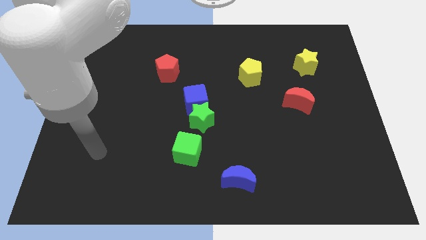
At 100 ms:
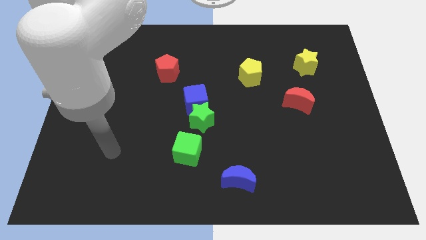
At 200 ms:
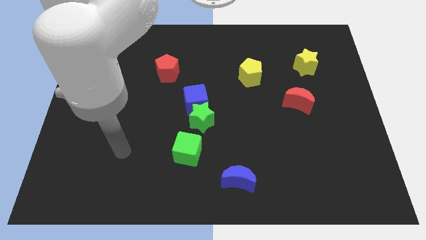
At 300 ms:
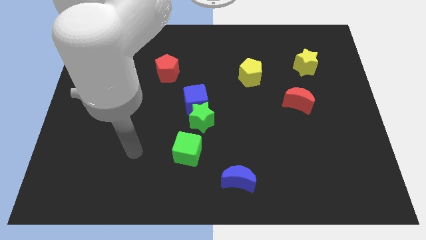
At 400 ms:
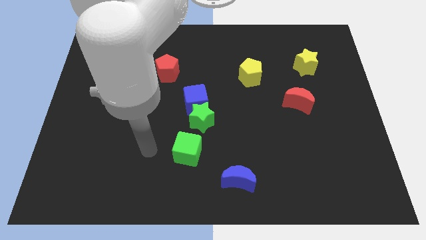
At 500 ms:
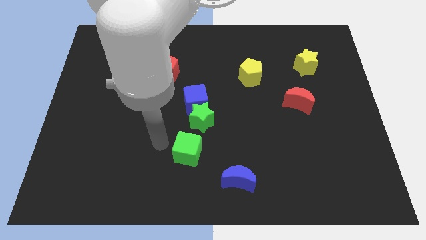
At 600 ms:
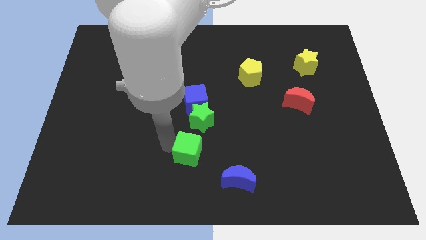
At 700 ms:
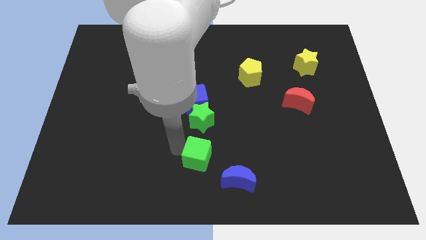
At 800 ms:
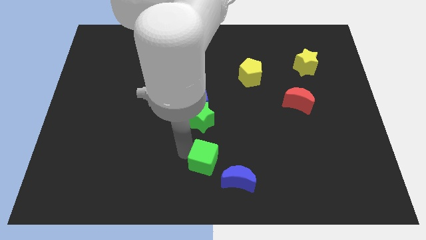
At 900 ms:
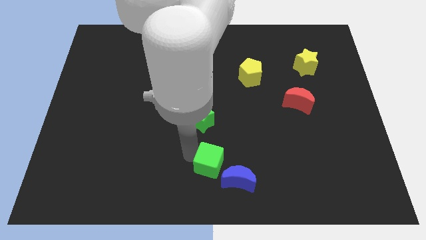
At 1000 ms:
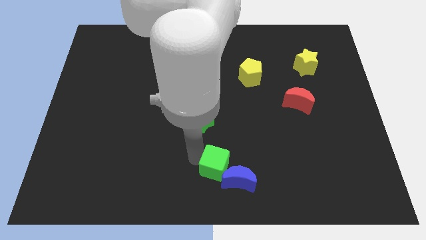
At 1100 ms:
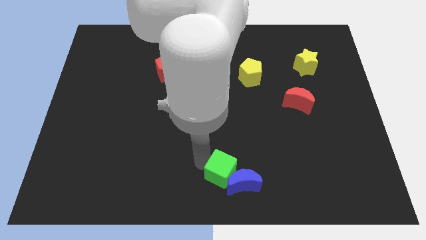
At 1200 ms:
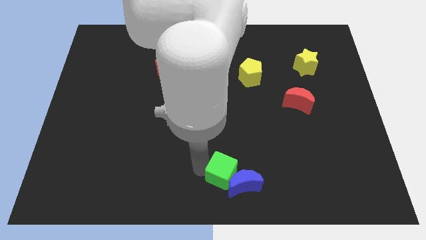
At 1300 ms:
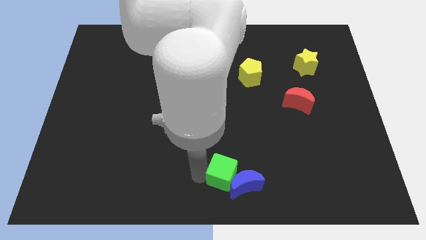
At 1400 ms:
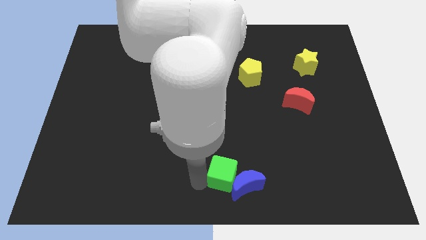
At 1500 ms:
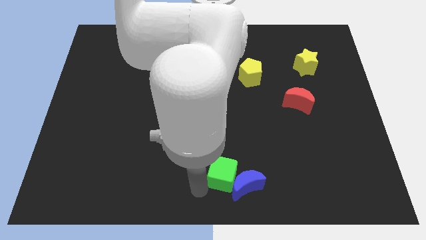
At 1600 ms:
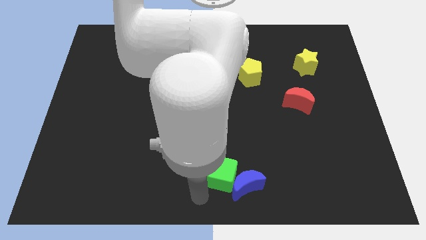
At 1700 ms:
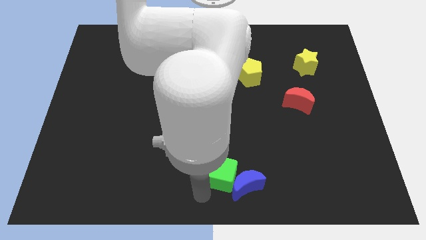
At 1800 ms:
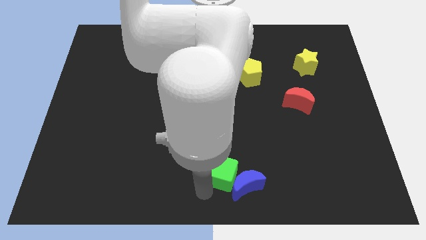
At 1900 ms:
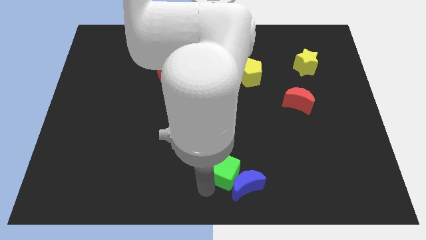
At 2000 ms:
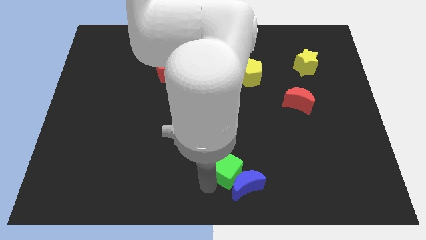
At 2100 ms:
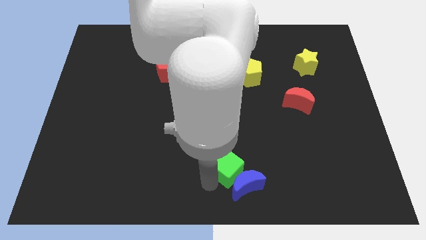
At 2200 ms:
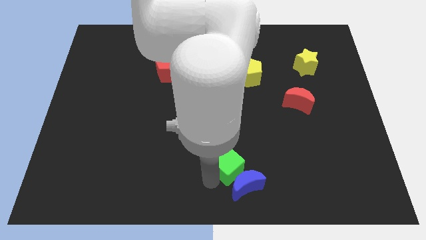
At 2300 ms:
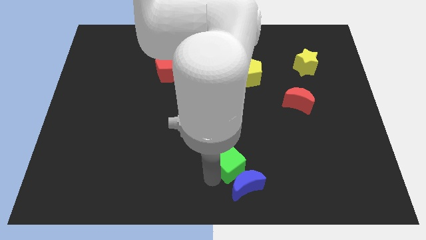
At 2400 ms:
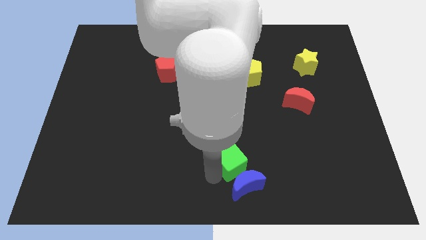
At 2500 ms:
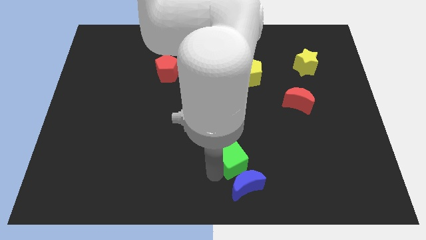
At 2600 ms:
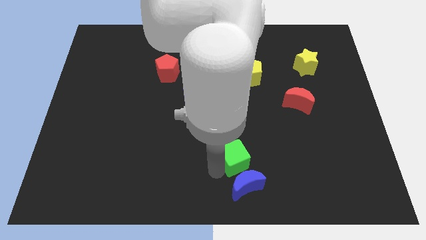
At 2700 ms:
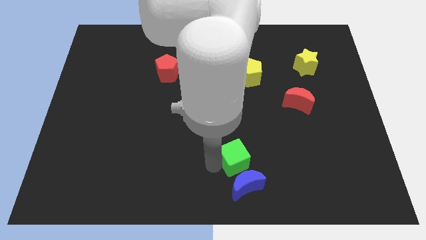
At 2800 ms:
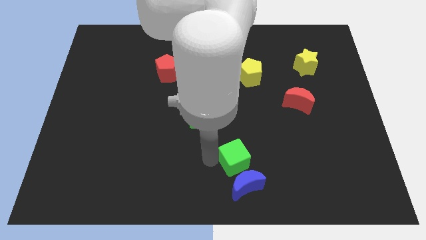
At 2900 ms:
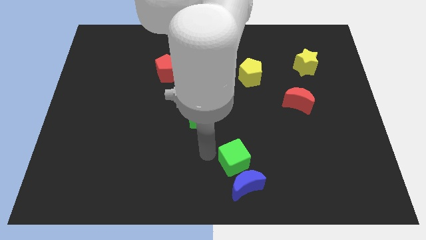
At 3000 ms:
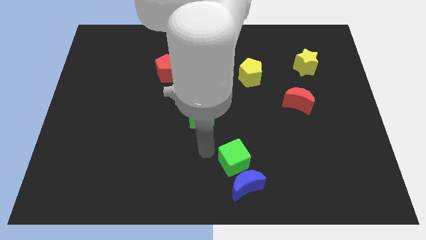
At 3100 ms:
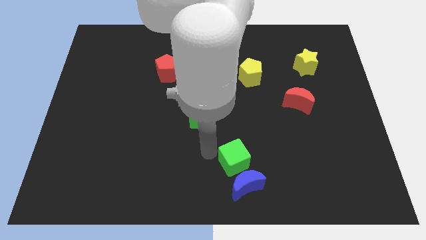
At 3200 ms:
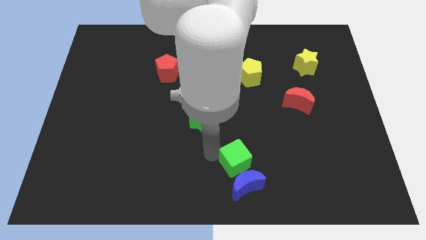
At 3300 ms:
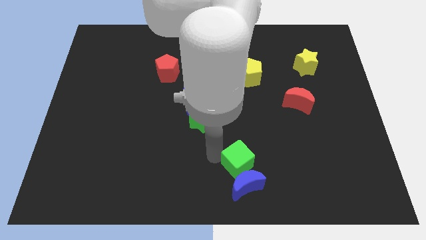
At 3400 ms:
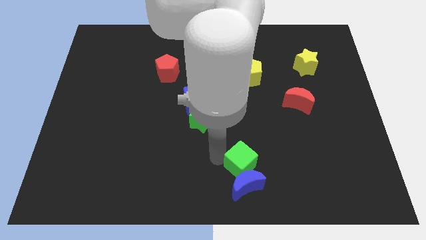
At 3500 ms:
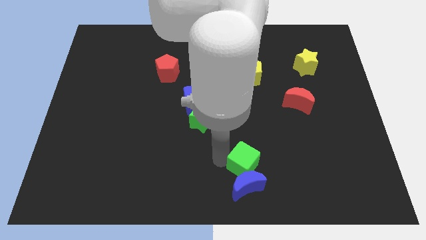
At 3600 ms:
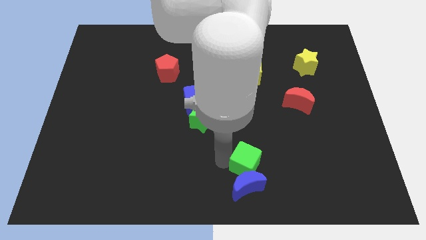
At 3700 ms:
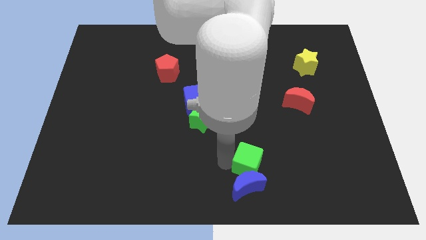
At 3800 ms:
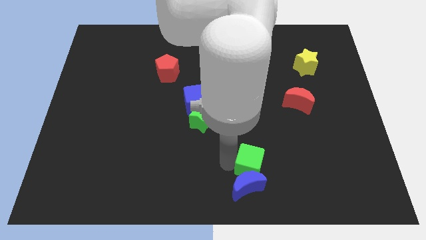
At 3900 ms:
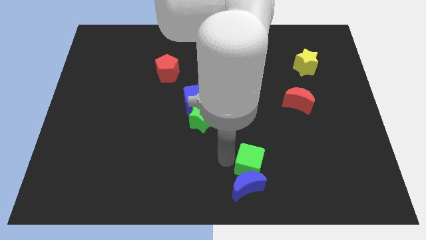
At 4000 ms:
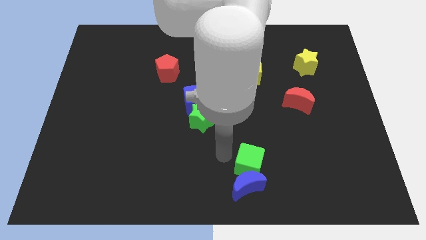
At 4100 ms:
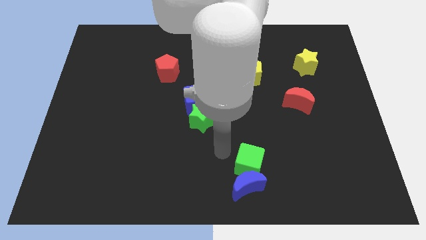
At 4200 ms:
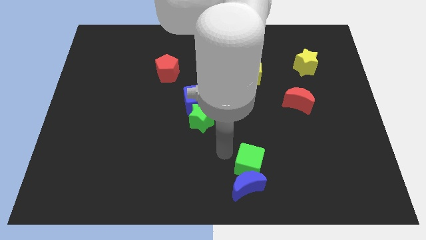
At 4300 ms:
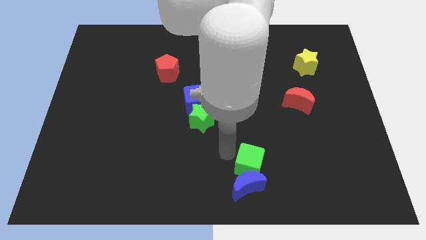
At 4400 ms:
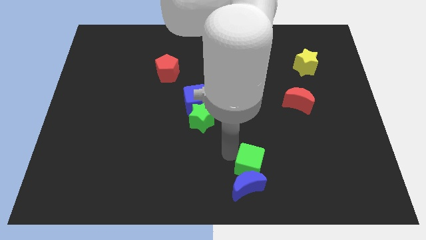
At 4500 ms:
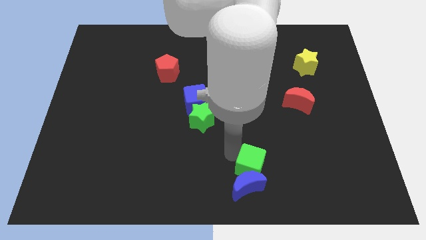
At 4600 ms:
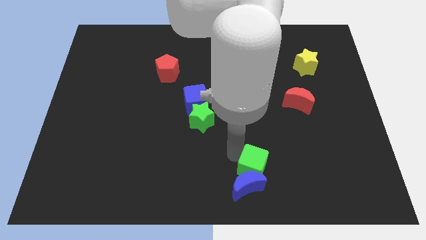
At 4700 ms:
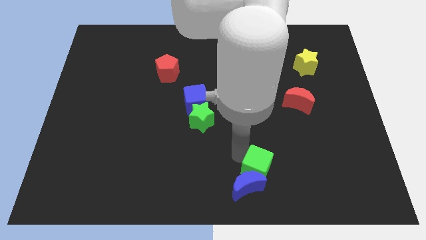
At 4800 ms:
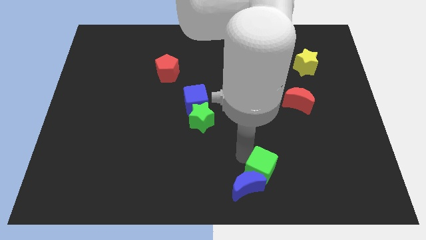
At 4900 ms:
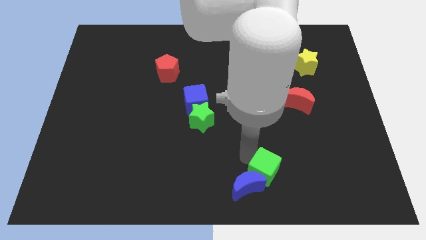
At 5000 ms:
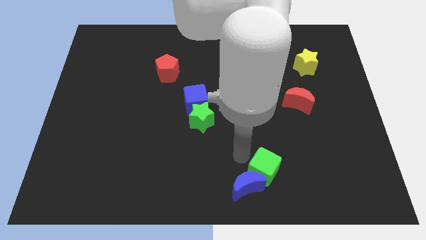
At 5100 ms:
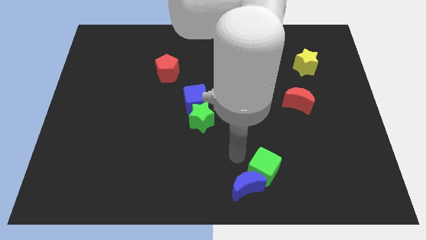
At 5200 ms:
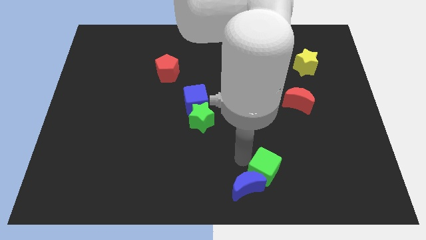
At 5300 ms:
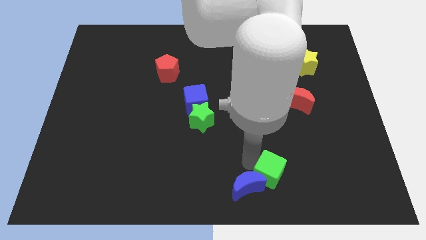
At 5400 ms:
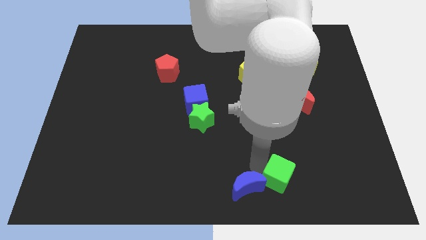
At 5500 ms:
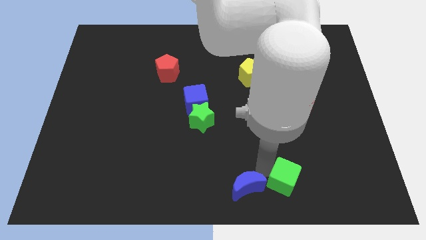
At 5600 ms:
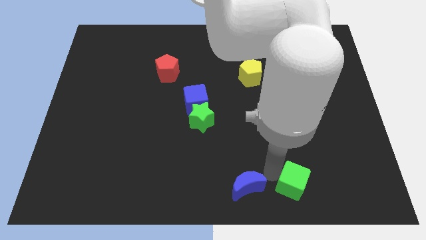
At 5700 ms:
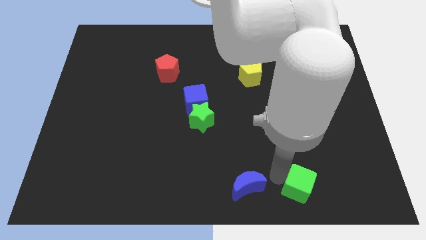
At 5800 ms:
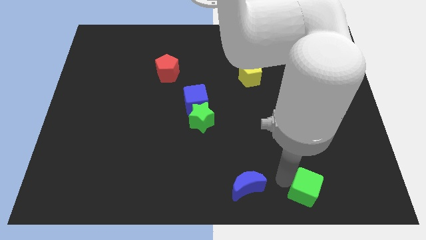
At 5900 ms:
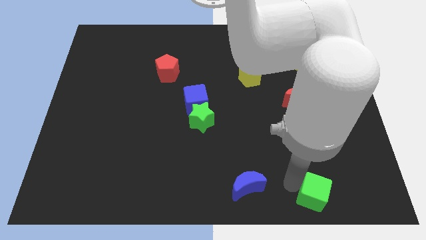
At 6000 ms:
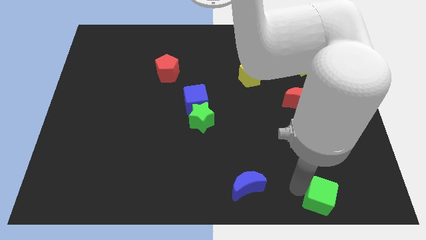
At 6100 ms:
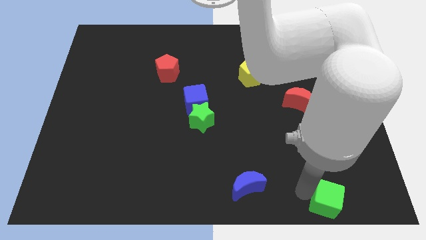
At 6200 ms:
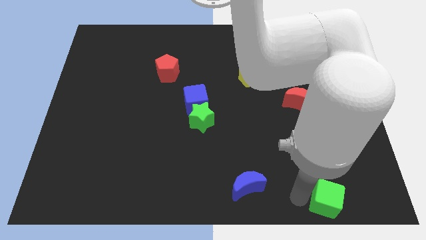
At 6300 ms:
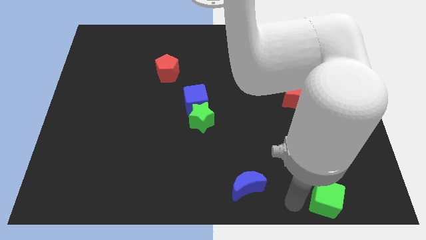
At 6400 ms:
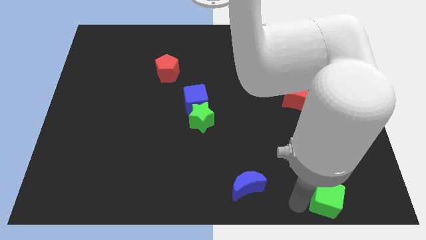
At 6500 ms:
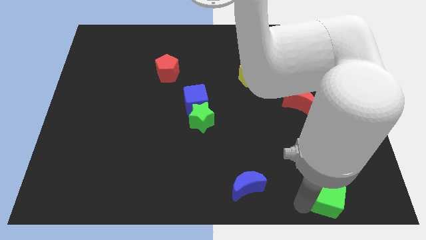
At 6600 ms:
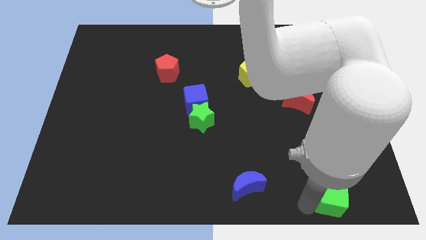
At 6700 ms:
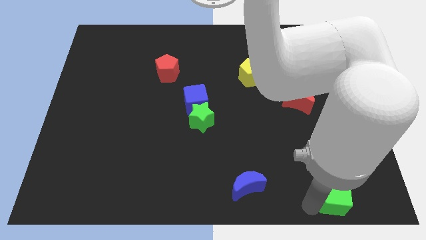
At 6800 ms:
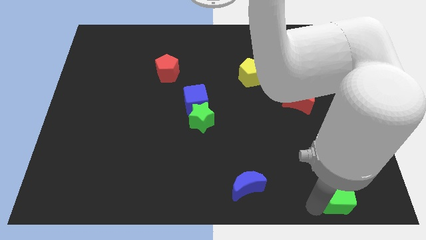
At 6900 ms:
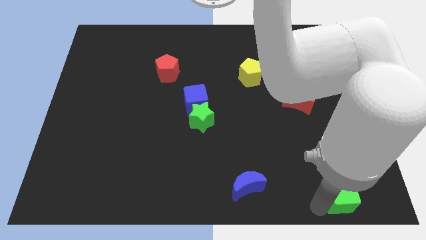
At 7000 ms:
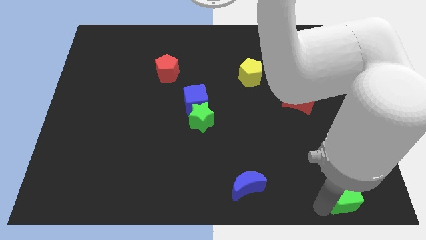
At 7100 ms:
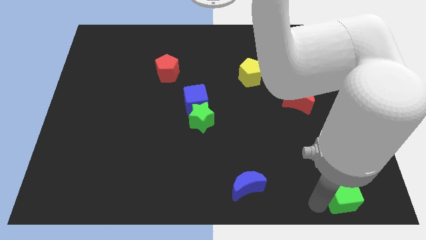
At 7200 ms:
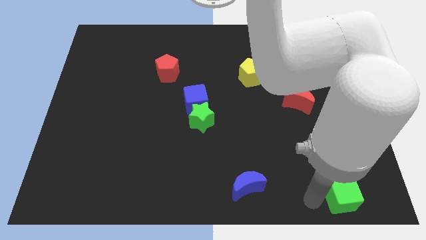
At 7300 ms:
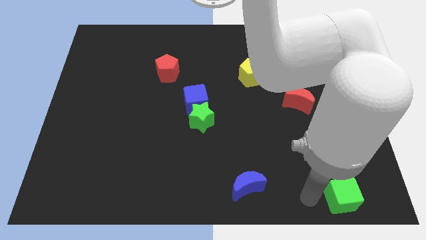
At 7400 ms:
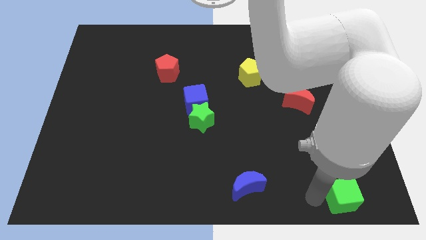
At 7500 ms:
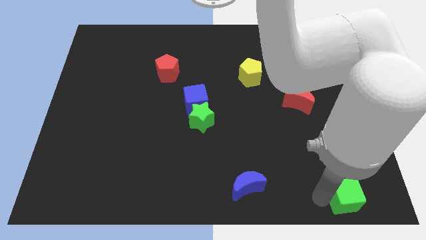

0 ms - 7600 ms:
put the green cube to the lower right corner

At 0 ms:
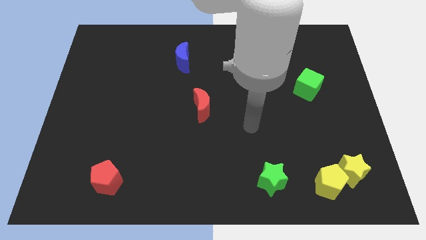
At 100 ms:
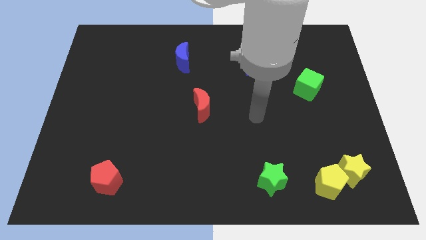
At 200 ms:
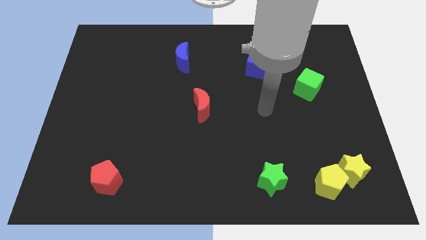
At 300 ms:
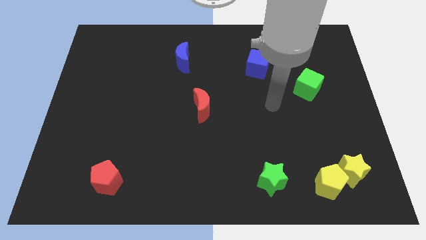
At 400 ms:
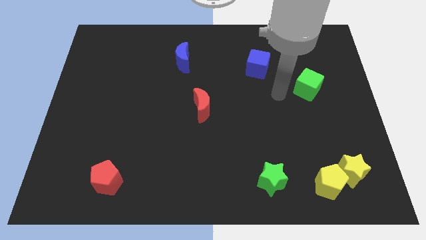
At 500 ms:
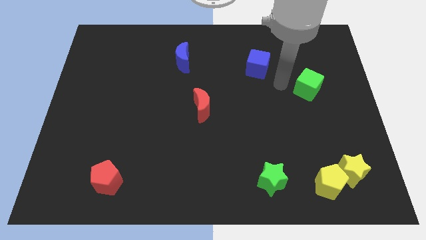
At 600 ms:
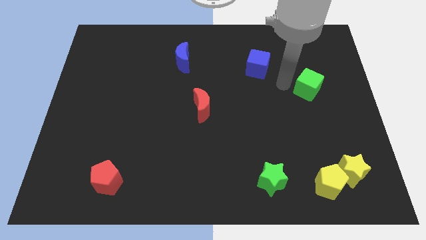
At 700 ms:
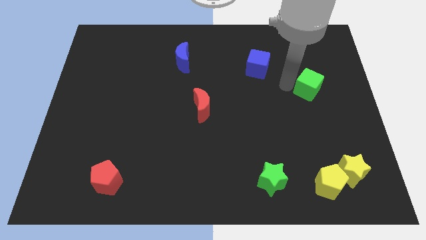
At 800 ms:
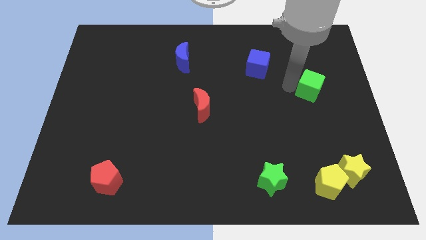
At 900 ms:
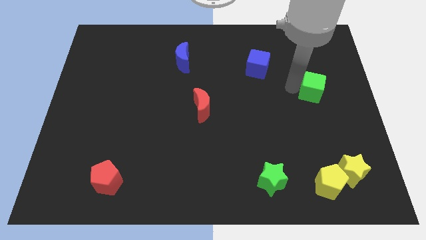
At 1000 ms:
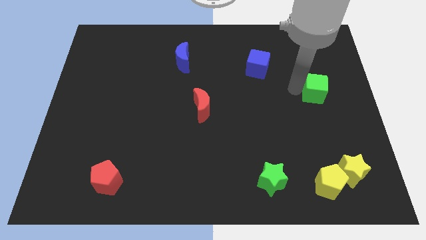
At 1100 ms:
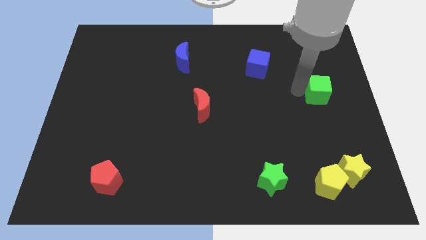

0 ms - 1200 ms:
push the green cube to the right side
